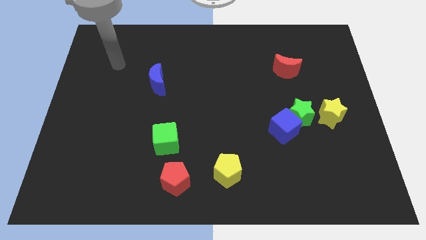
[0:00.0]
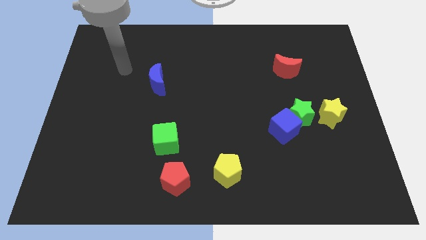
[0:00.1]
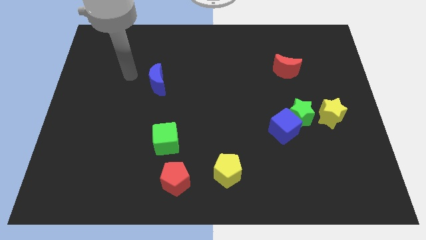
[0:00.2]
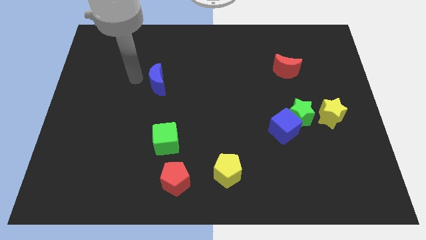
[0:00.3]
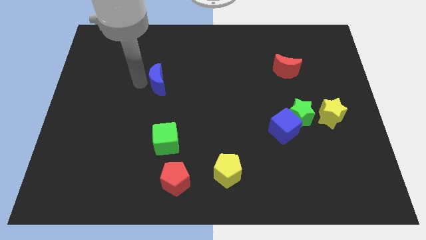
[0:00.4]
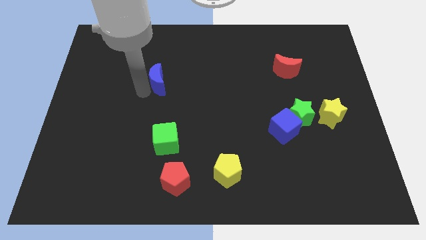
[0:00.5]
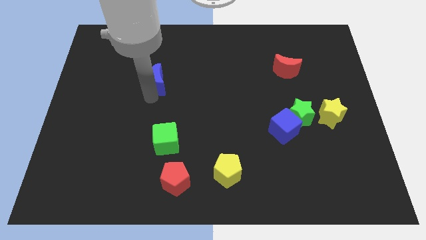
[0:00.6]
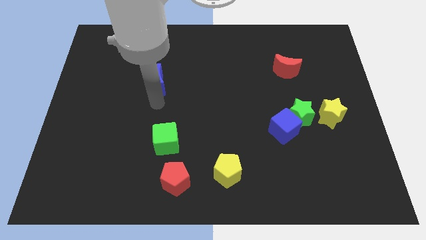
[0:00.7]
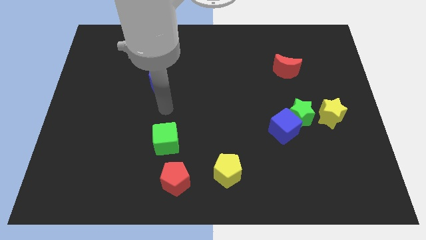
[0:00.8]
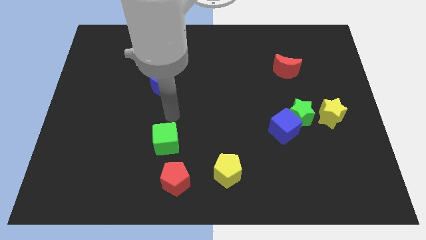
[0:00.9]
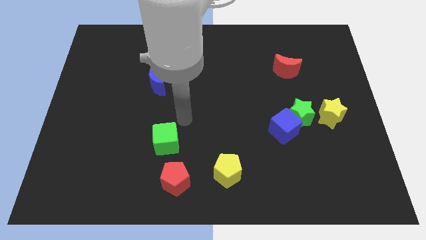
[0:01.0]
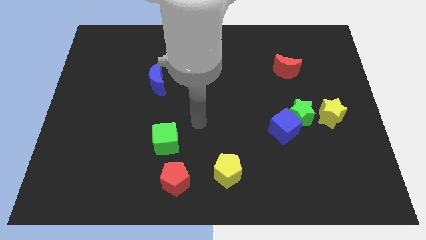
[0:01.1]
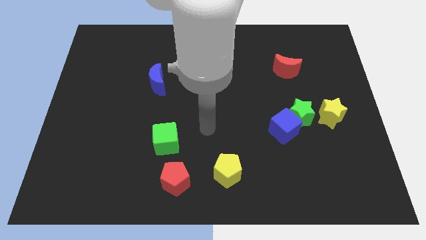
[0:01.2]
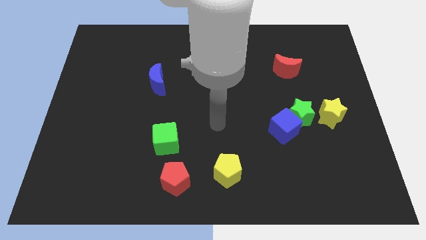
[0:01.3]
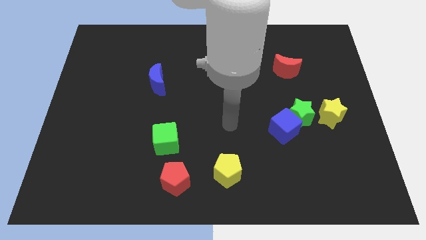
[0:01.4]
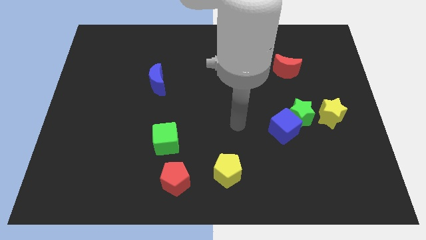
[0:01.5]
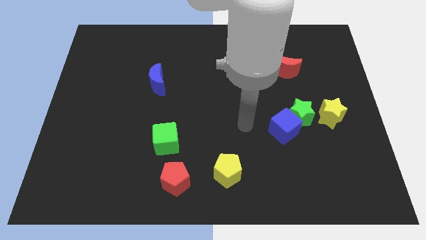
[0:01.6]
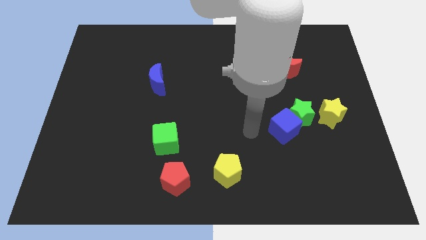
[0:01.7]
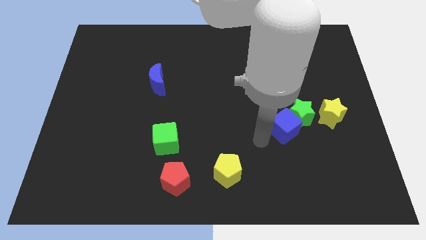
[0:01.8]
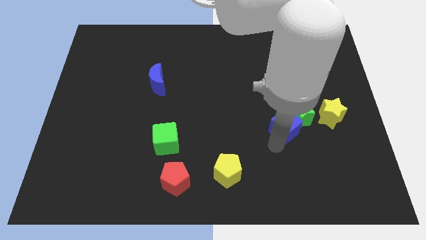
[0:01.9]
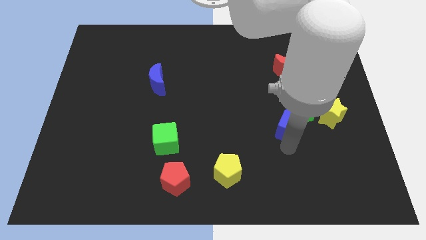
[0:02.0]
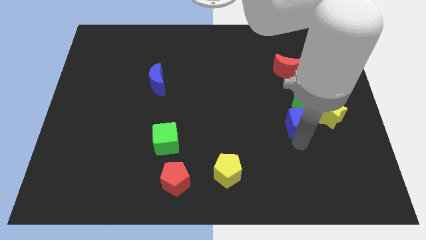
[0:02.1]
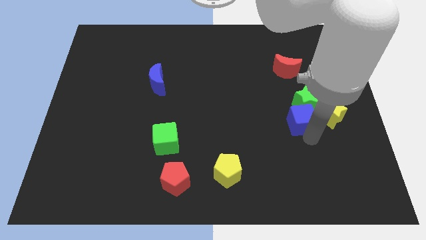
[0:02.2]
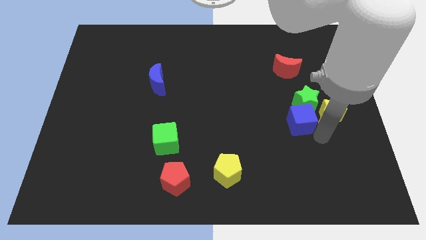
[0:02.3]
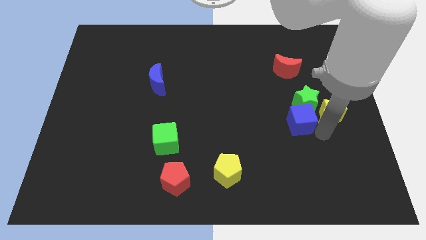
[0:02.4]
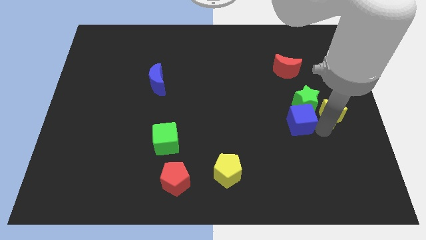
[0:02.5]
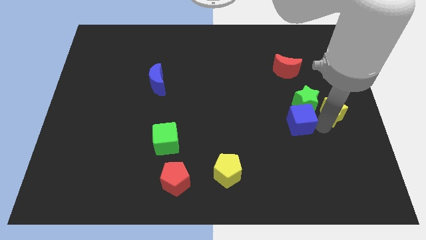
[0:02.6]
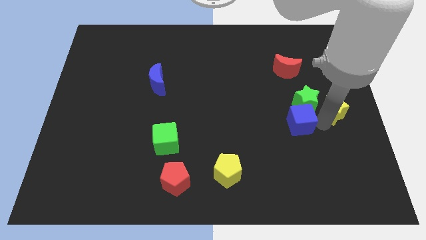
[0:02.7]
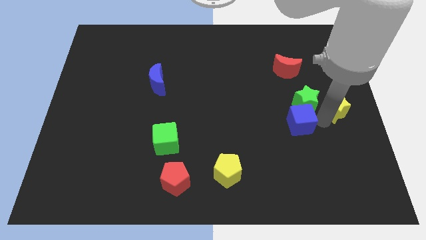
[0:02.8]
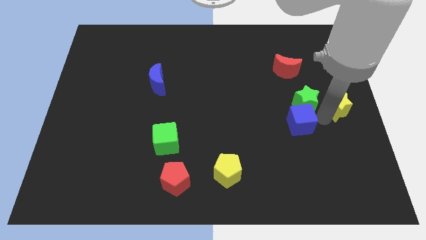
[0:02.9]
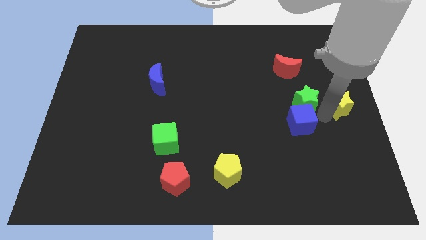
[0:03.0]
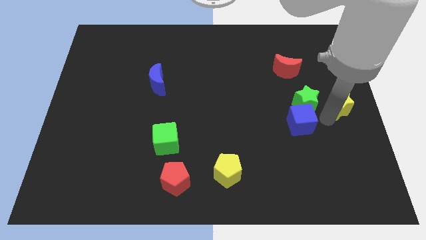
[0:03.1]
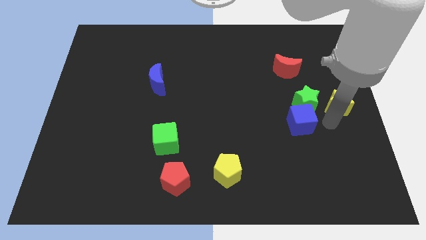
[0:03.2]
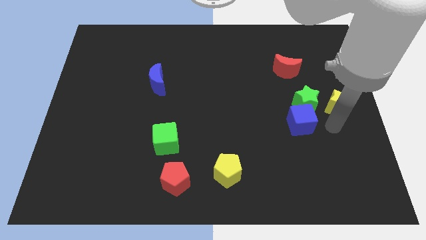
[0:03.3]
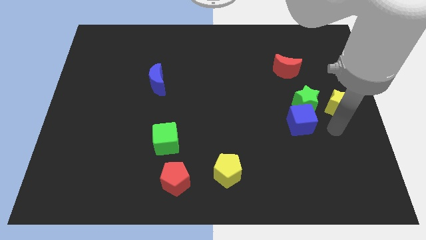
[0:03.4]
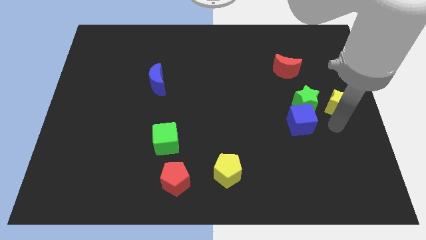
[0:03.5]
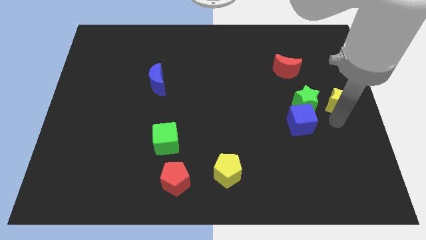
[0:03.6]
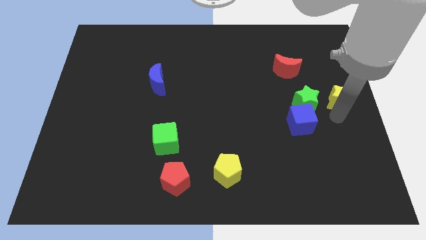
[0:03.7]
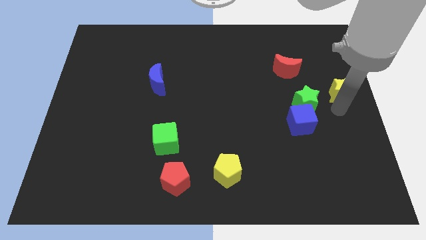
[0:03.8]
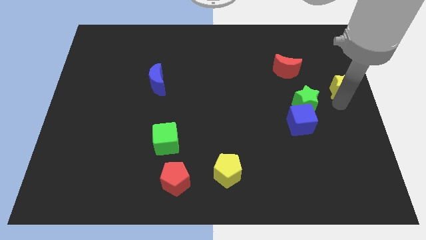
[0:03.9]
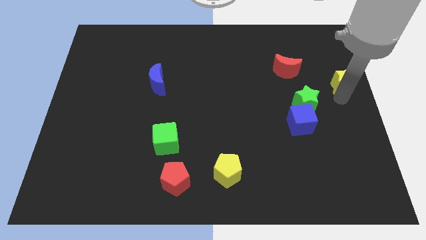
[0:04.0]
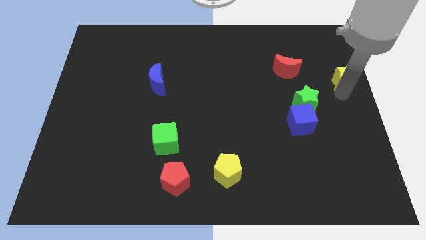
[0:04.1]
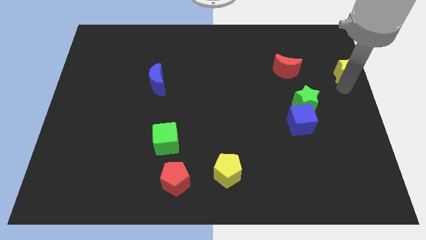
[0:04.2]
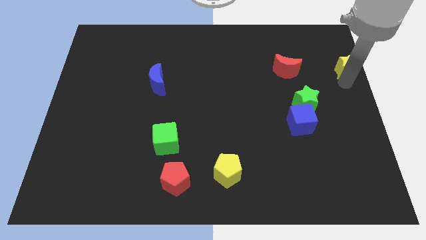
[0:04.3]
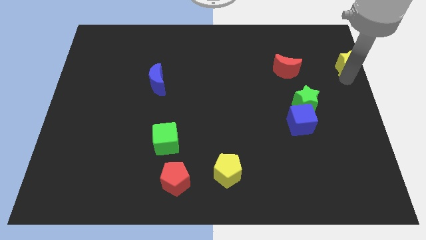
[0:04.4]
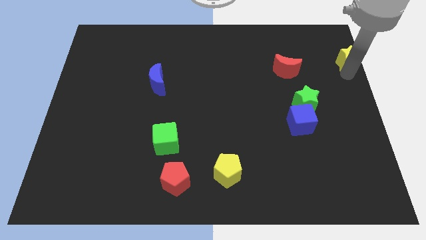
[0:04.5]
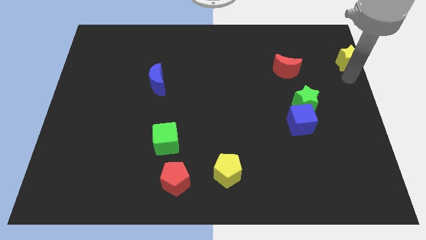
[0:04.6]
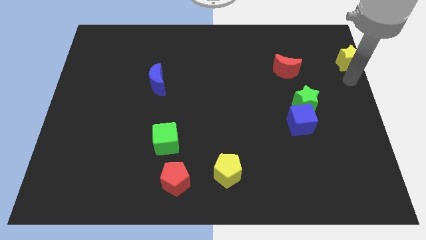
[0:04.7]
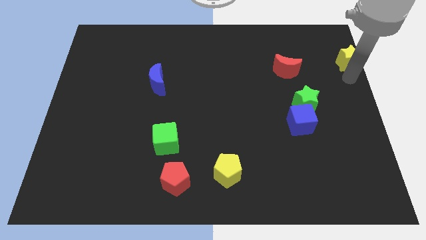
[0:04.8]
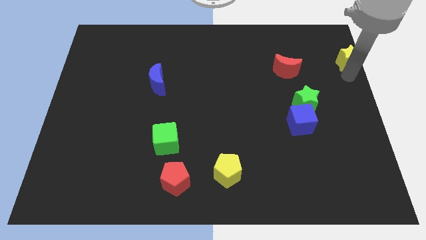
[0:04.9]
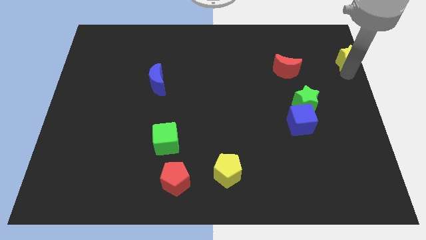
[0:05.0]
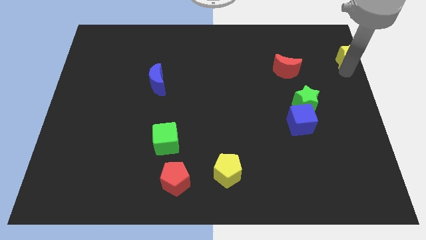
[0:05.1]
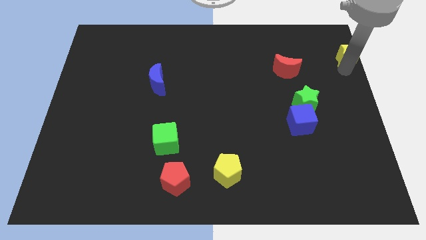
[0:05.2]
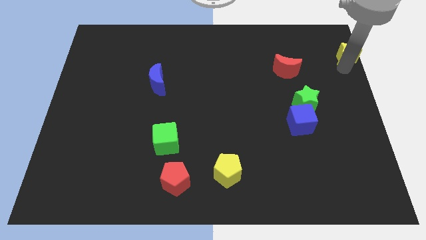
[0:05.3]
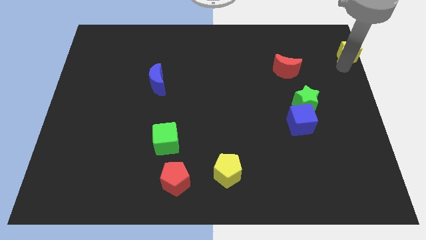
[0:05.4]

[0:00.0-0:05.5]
push the yellow star to the top right of the board

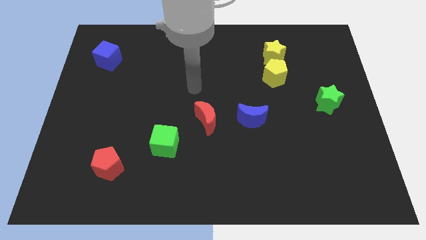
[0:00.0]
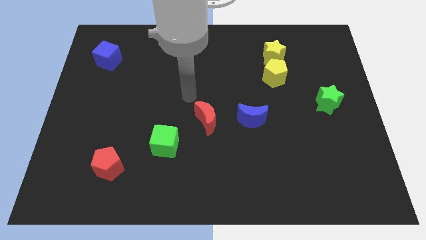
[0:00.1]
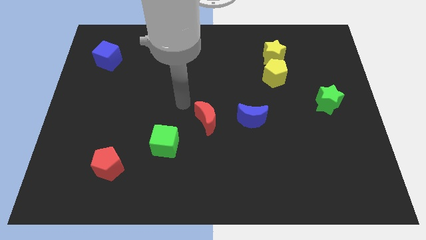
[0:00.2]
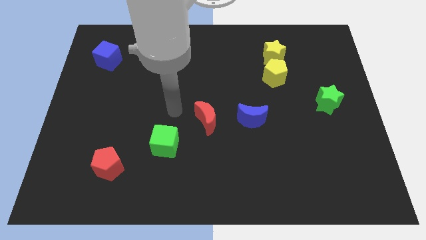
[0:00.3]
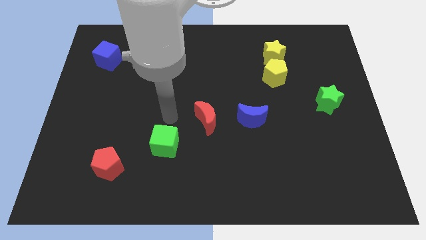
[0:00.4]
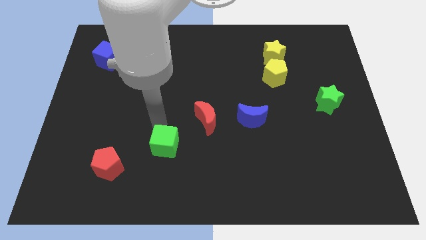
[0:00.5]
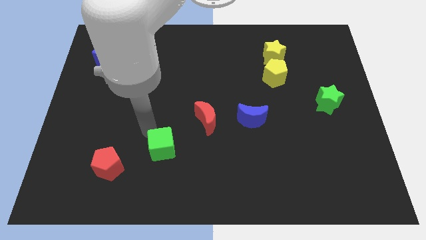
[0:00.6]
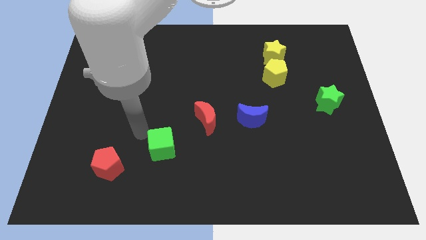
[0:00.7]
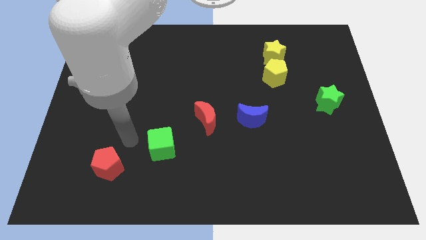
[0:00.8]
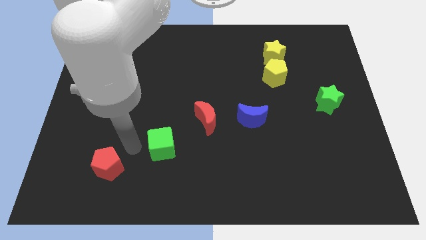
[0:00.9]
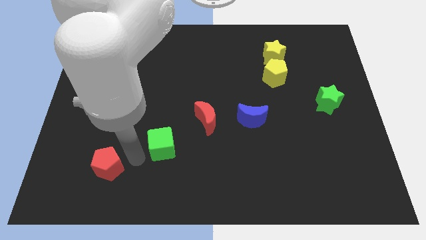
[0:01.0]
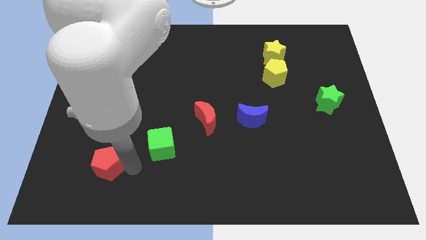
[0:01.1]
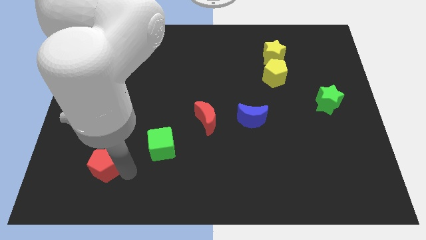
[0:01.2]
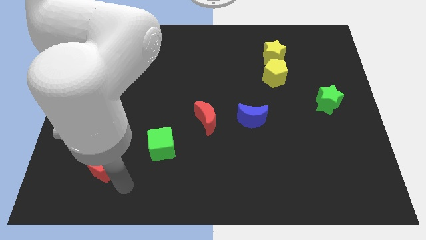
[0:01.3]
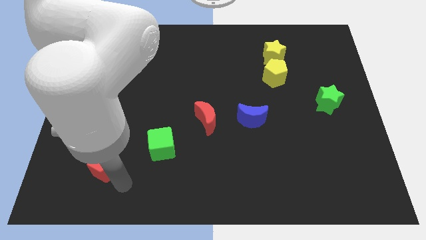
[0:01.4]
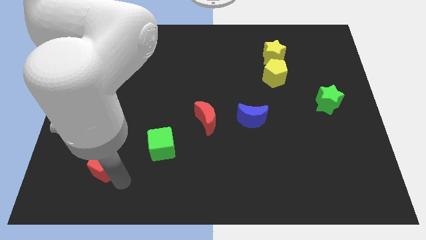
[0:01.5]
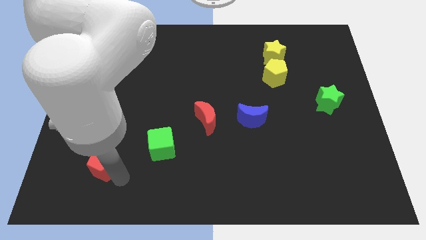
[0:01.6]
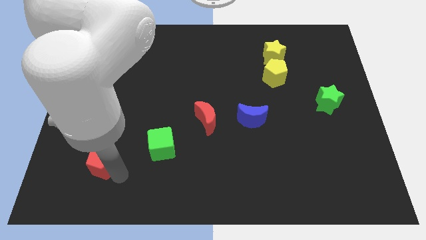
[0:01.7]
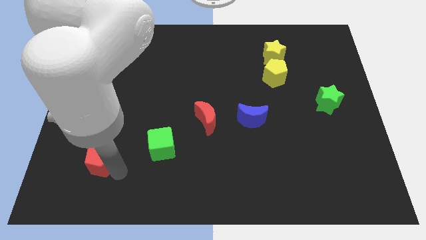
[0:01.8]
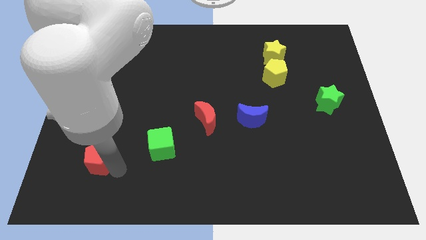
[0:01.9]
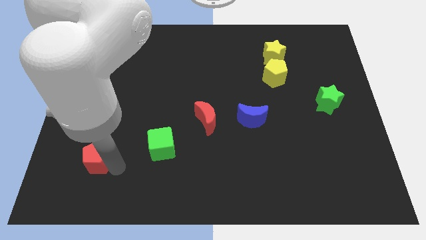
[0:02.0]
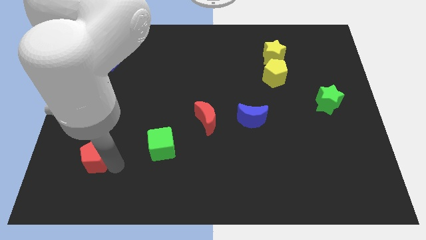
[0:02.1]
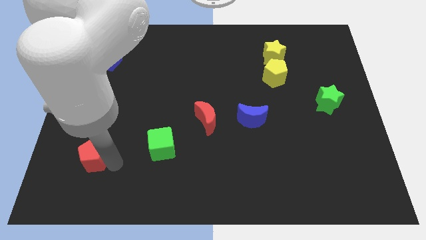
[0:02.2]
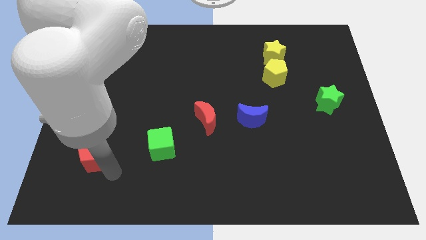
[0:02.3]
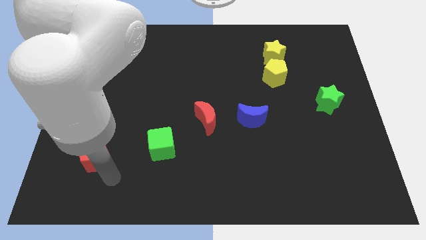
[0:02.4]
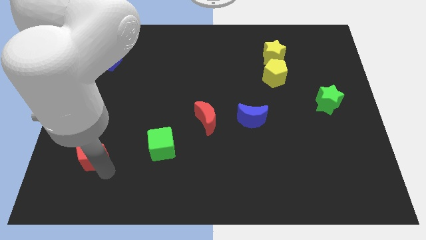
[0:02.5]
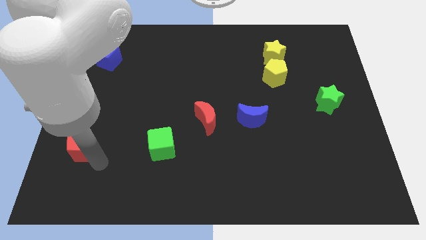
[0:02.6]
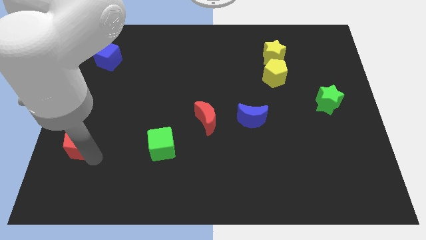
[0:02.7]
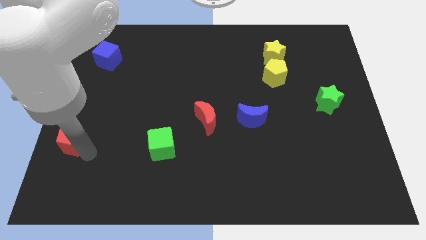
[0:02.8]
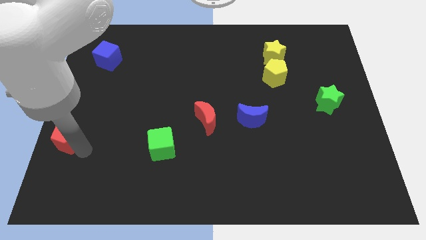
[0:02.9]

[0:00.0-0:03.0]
move the red pentagon to the center left
